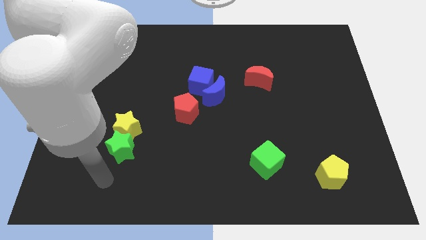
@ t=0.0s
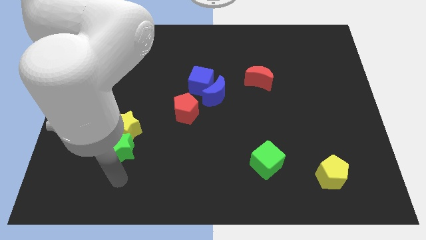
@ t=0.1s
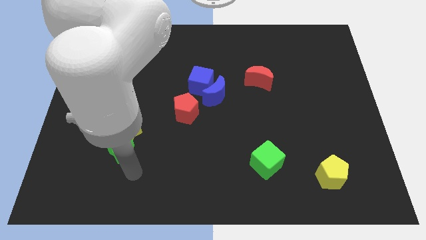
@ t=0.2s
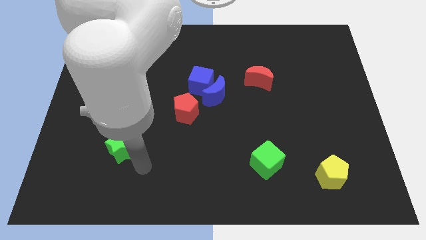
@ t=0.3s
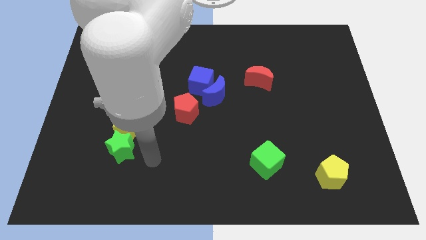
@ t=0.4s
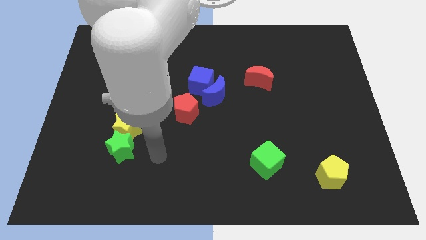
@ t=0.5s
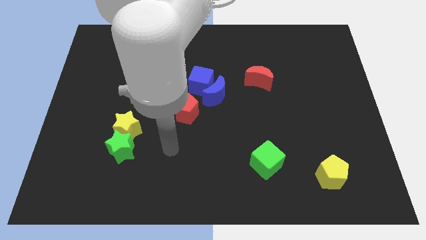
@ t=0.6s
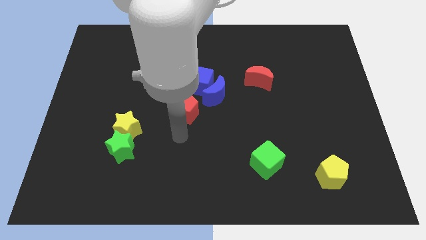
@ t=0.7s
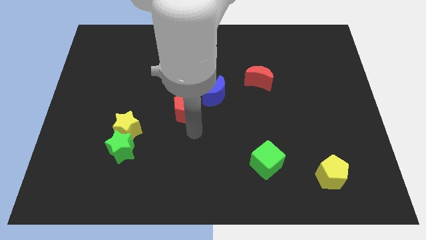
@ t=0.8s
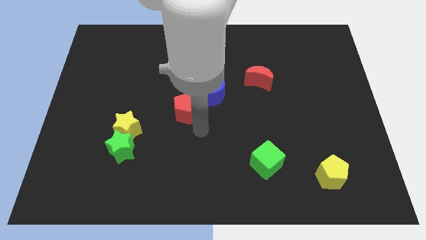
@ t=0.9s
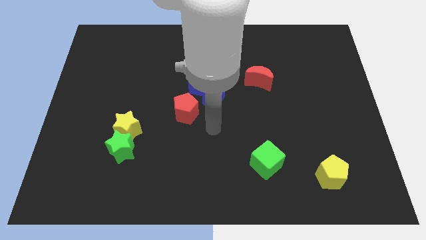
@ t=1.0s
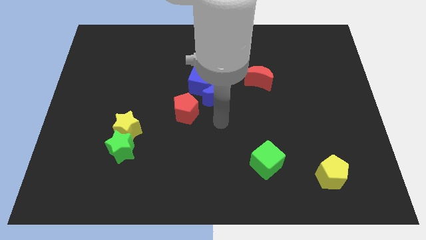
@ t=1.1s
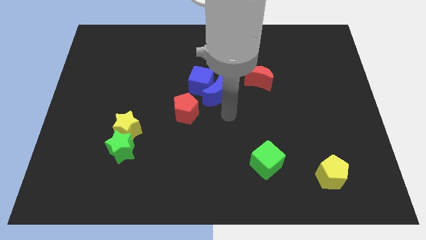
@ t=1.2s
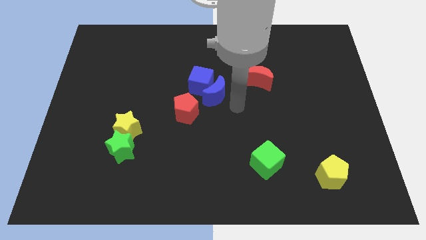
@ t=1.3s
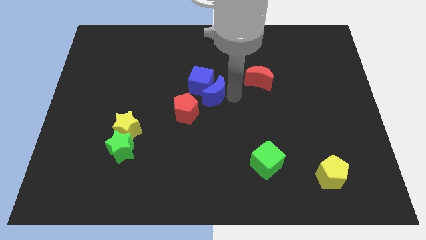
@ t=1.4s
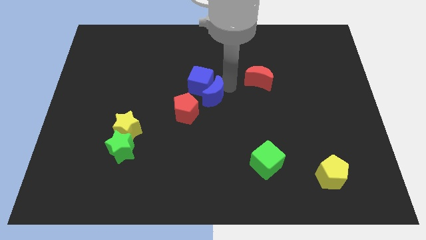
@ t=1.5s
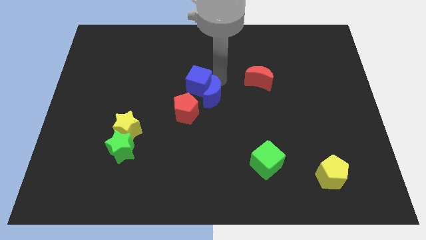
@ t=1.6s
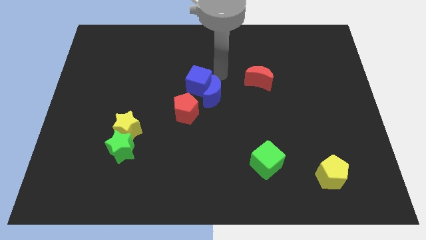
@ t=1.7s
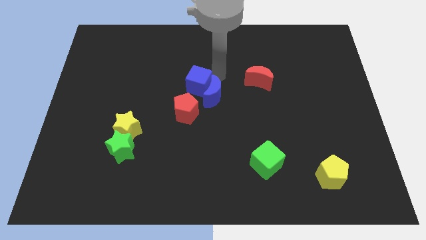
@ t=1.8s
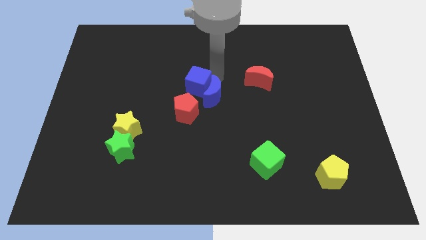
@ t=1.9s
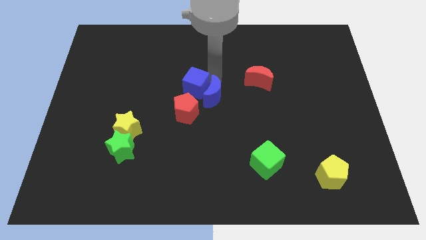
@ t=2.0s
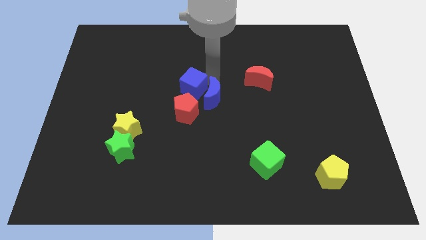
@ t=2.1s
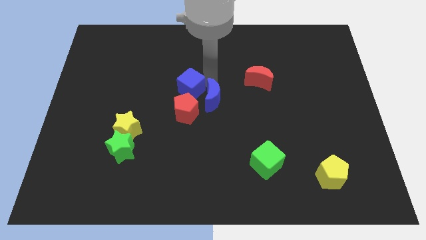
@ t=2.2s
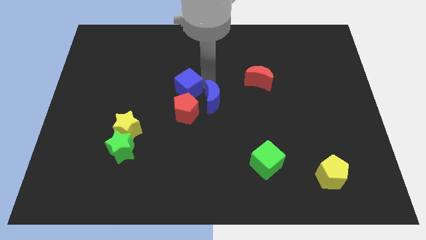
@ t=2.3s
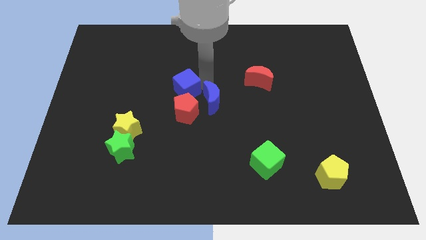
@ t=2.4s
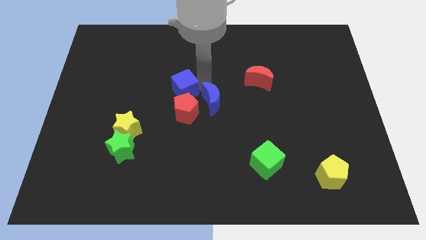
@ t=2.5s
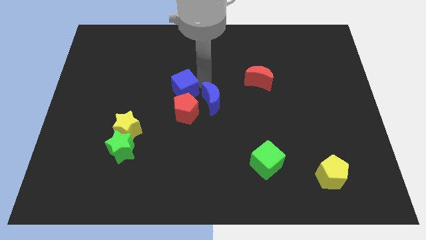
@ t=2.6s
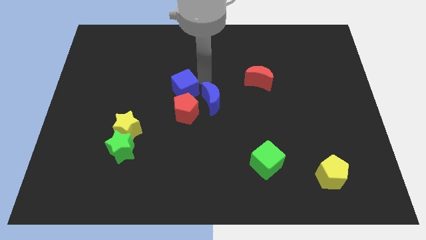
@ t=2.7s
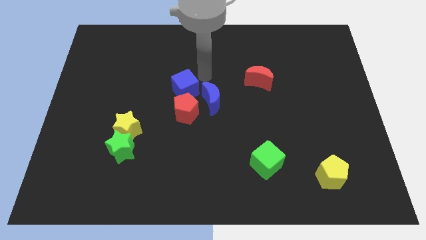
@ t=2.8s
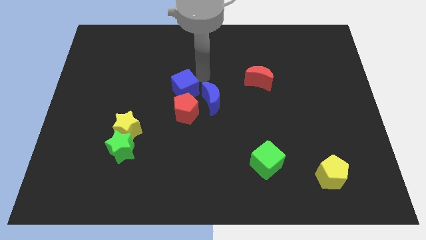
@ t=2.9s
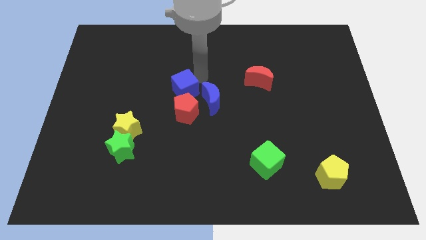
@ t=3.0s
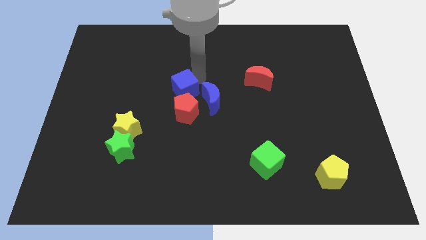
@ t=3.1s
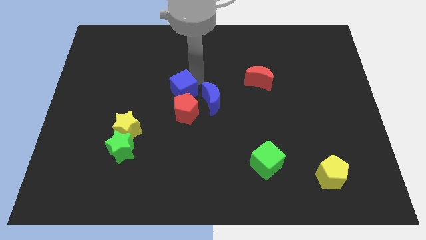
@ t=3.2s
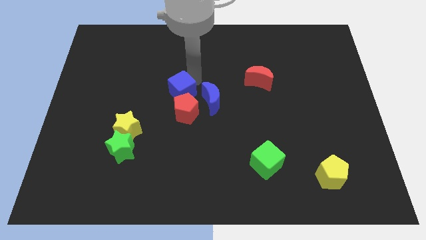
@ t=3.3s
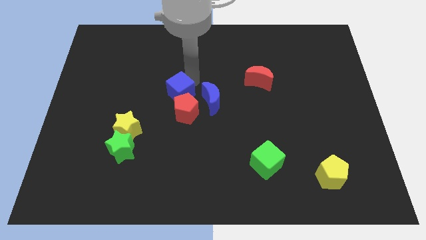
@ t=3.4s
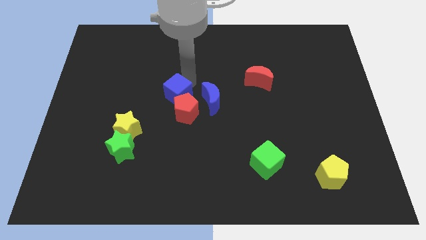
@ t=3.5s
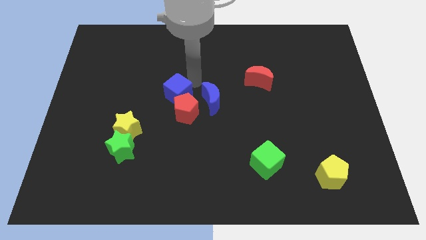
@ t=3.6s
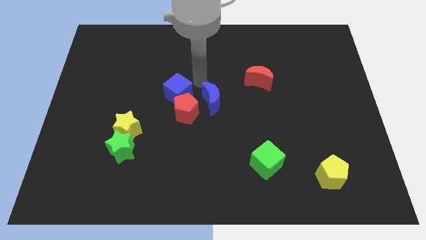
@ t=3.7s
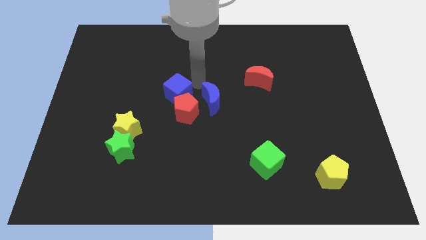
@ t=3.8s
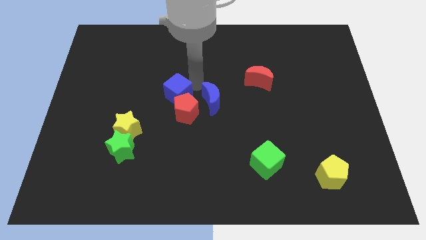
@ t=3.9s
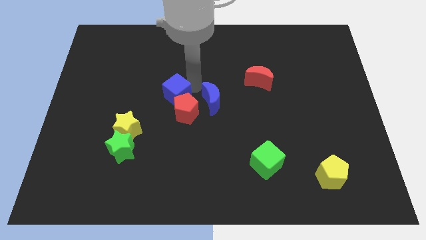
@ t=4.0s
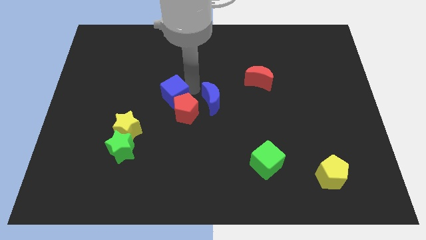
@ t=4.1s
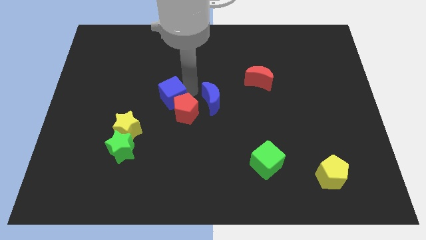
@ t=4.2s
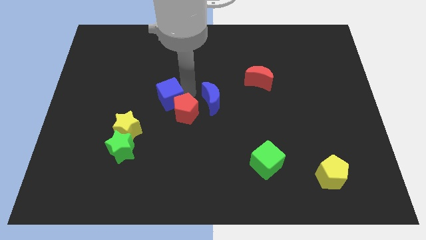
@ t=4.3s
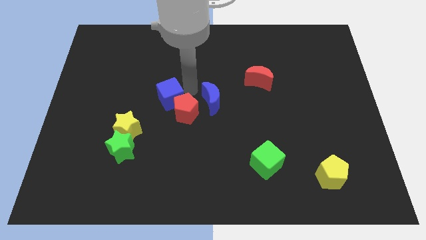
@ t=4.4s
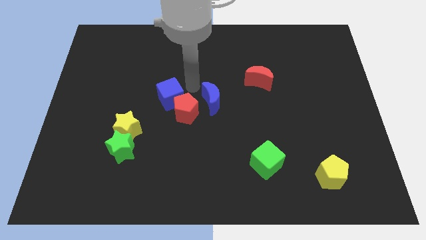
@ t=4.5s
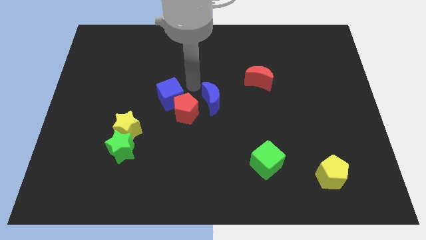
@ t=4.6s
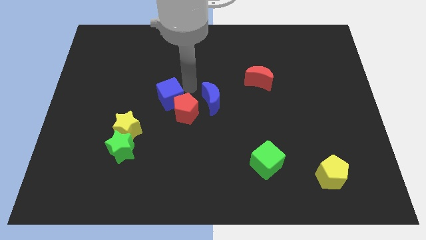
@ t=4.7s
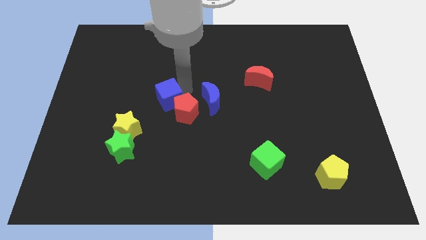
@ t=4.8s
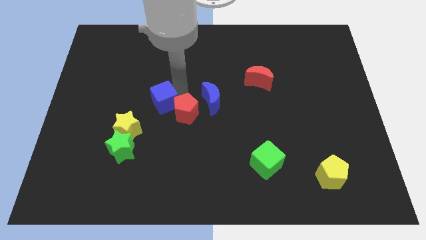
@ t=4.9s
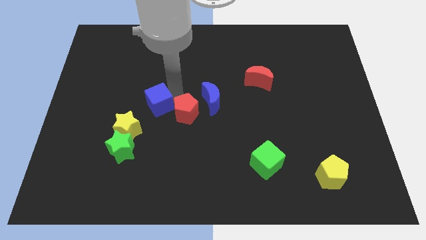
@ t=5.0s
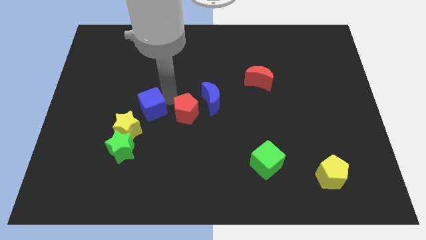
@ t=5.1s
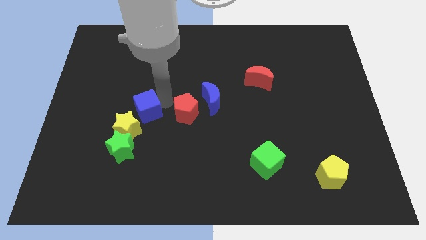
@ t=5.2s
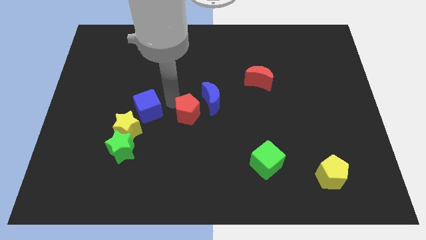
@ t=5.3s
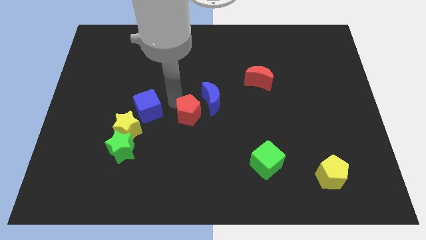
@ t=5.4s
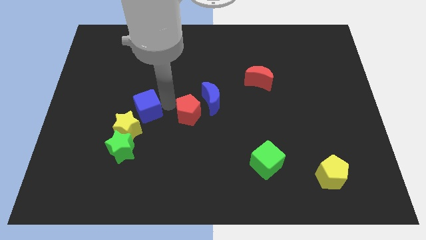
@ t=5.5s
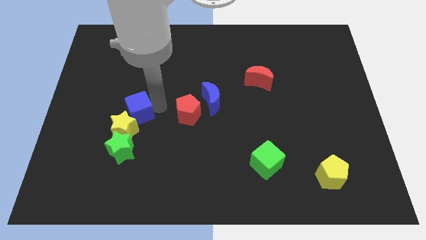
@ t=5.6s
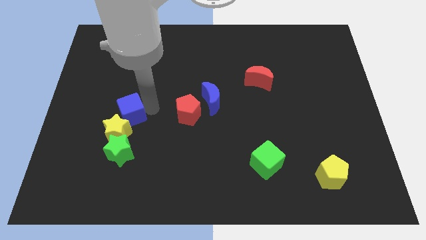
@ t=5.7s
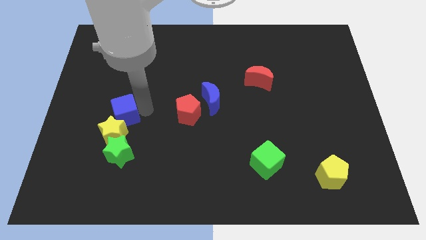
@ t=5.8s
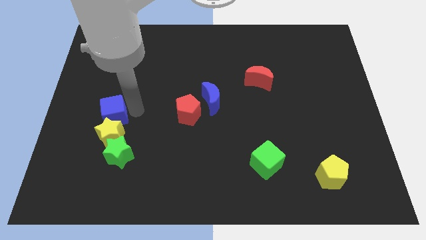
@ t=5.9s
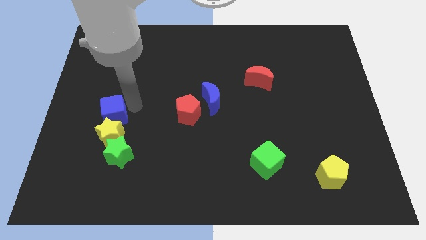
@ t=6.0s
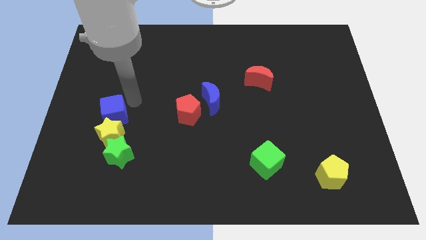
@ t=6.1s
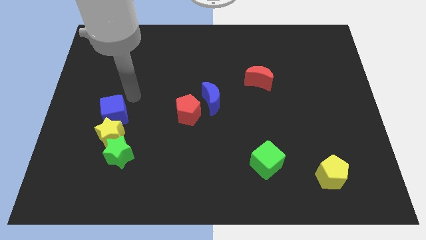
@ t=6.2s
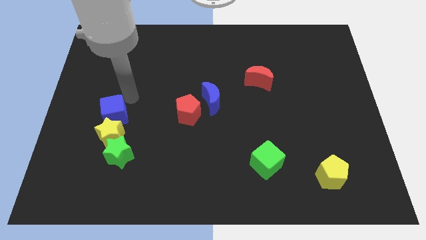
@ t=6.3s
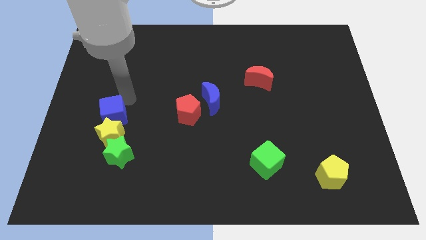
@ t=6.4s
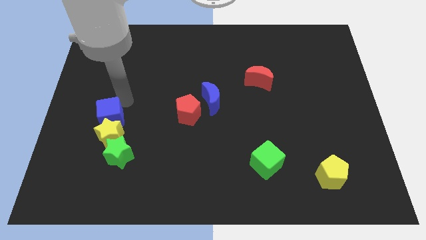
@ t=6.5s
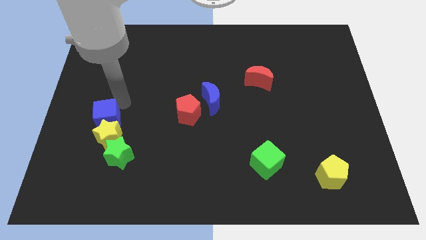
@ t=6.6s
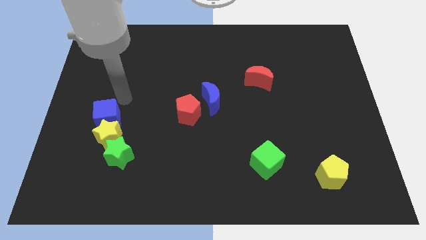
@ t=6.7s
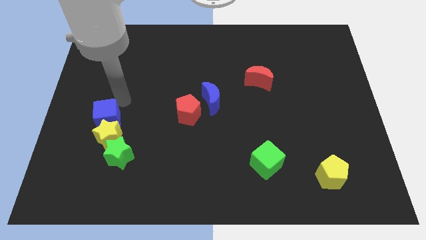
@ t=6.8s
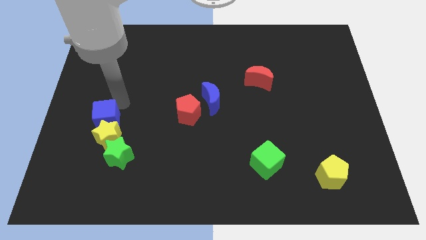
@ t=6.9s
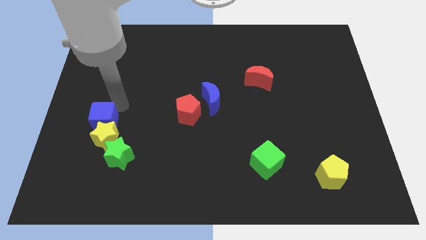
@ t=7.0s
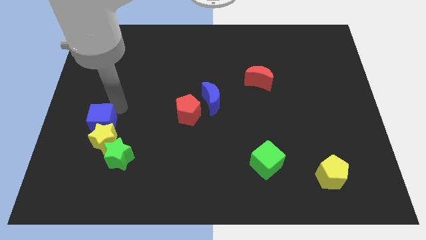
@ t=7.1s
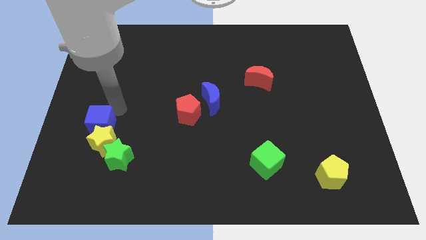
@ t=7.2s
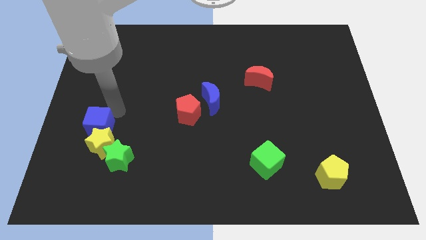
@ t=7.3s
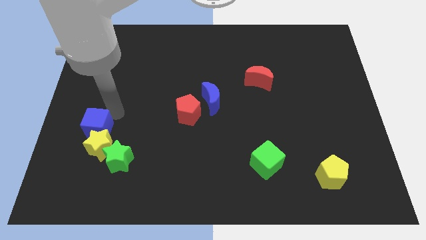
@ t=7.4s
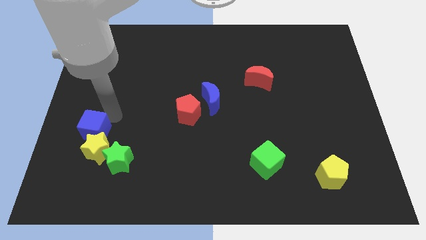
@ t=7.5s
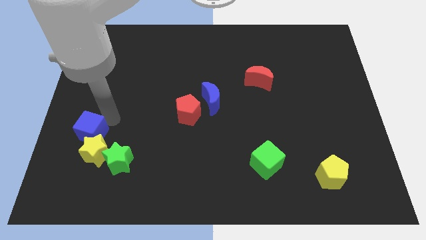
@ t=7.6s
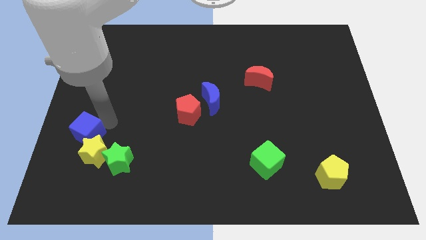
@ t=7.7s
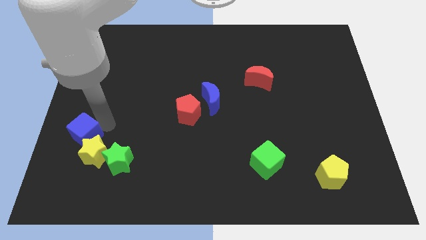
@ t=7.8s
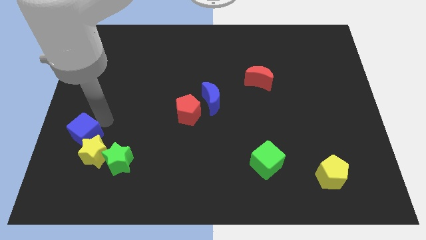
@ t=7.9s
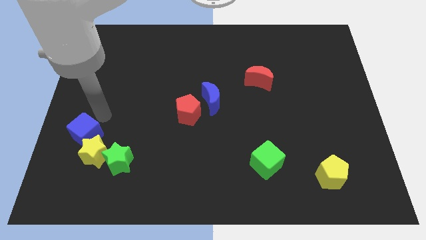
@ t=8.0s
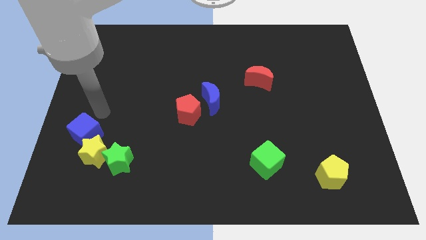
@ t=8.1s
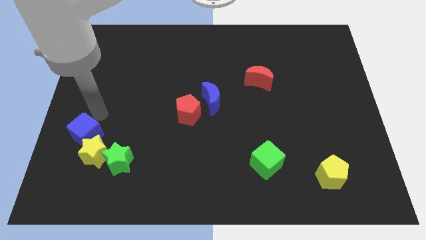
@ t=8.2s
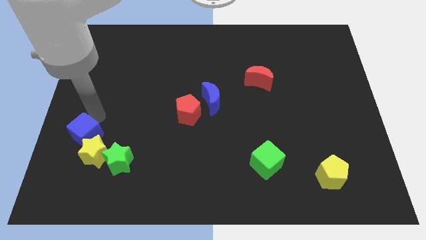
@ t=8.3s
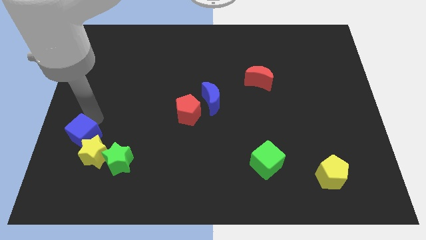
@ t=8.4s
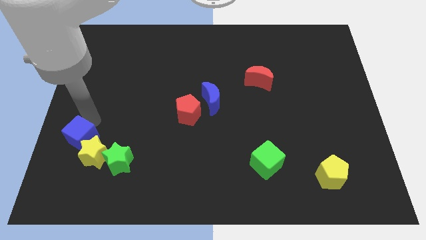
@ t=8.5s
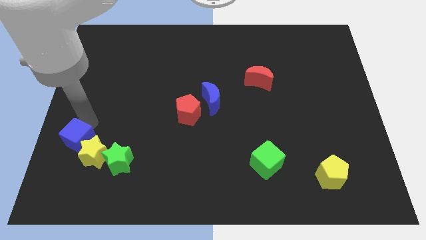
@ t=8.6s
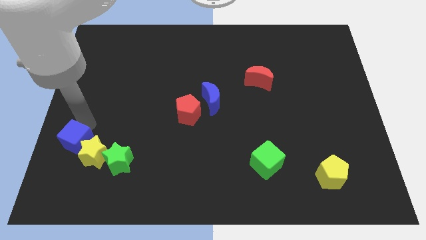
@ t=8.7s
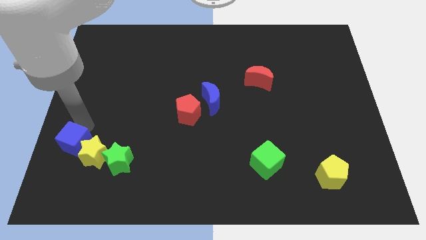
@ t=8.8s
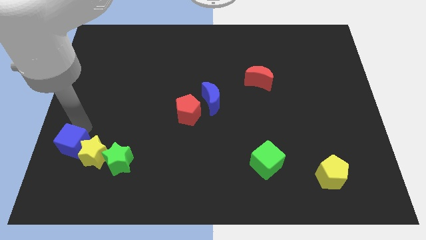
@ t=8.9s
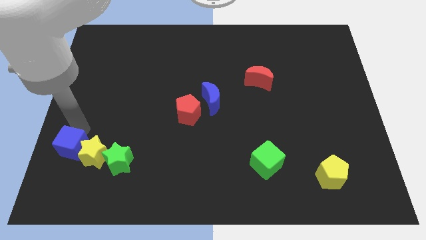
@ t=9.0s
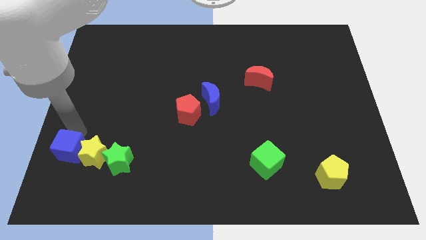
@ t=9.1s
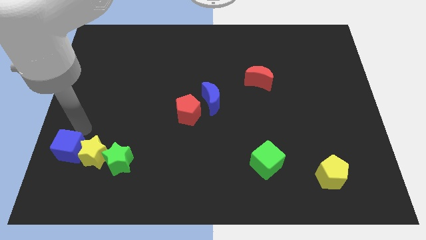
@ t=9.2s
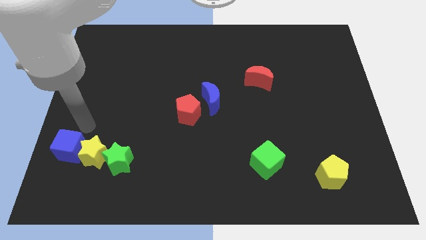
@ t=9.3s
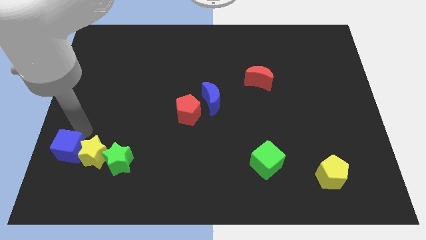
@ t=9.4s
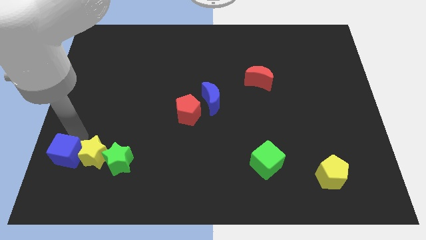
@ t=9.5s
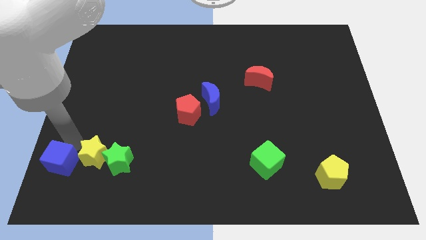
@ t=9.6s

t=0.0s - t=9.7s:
push the blue cube to the lower left corner
